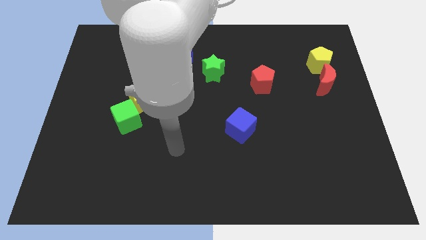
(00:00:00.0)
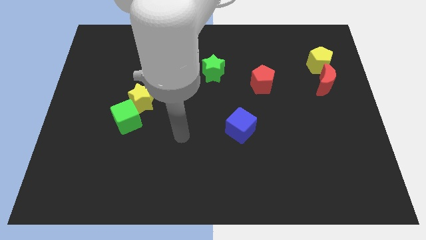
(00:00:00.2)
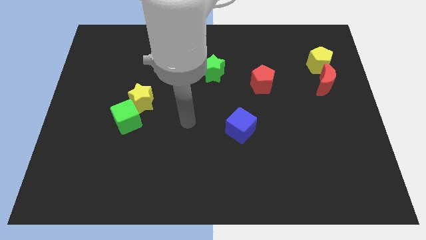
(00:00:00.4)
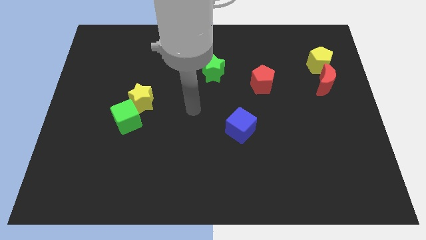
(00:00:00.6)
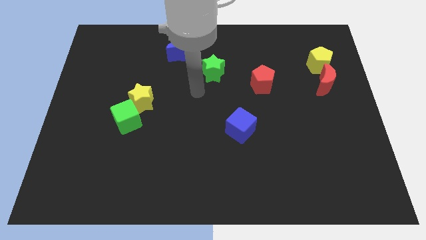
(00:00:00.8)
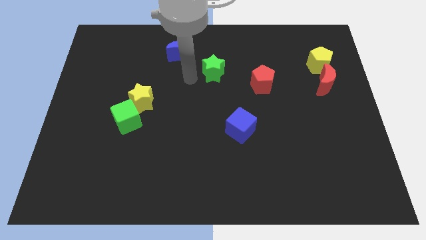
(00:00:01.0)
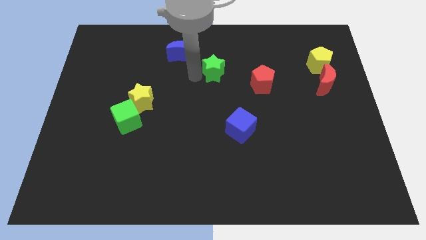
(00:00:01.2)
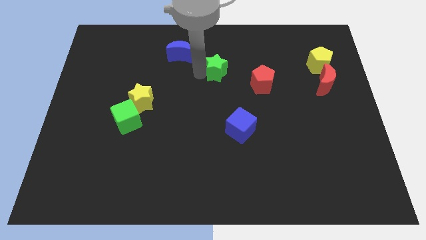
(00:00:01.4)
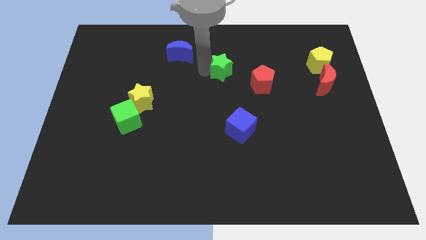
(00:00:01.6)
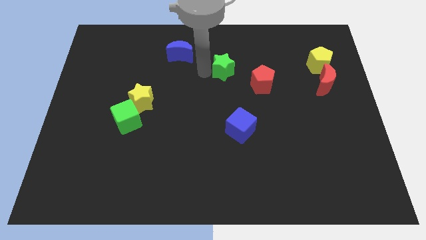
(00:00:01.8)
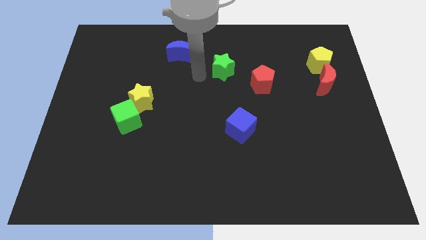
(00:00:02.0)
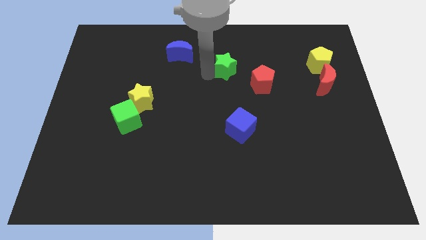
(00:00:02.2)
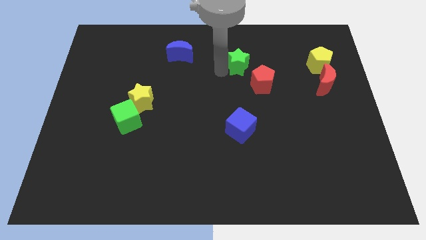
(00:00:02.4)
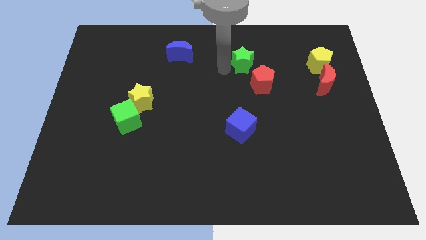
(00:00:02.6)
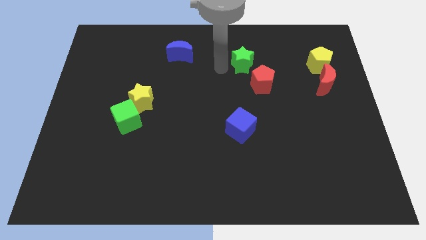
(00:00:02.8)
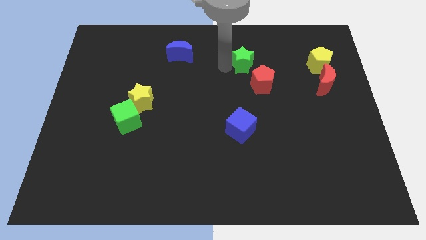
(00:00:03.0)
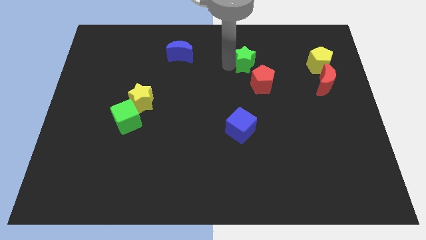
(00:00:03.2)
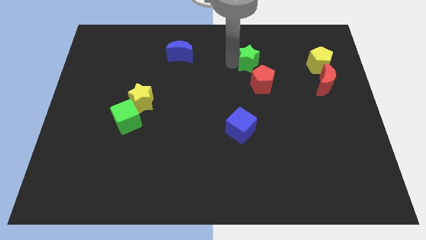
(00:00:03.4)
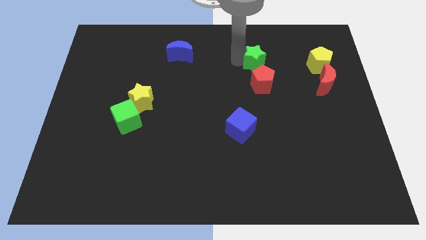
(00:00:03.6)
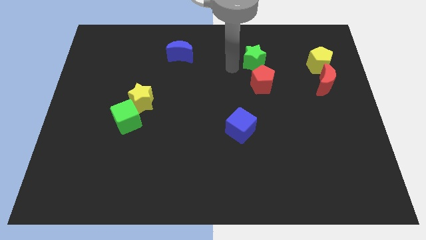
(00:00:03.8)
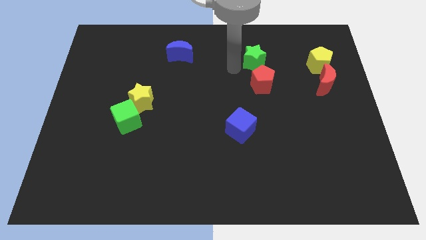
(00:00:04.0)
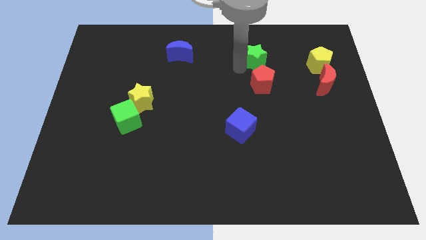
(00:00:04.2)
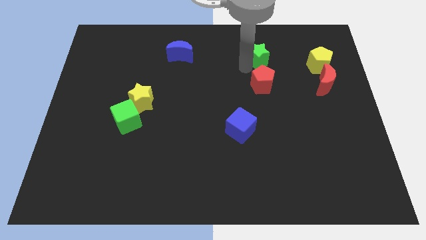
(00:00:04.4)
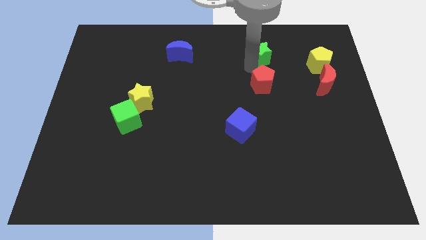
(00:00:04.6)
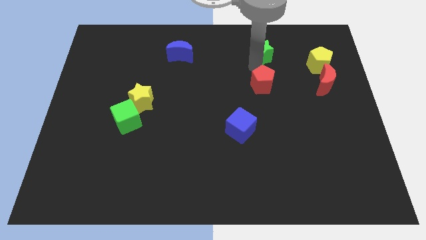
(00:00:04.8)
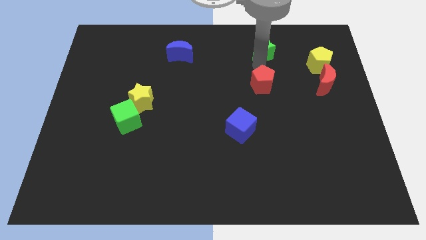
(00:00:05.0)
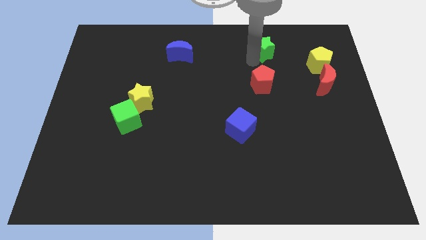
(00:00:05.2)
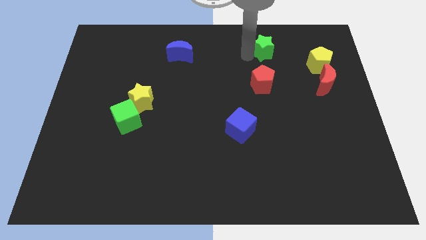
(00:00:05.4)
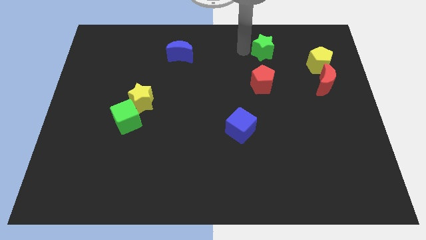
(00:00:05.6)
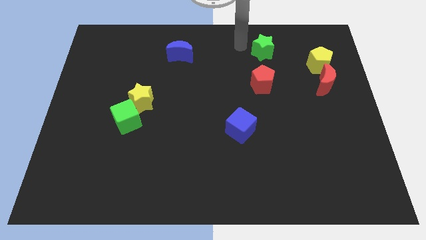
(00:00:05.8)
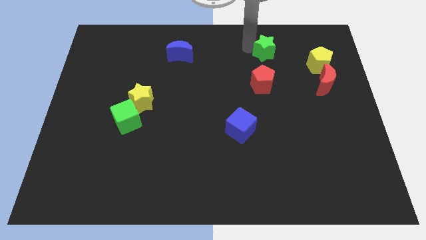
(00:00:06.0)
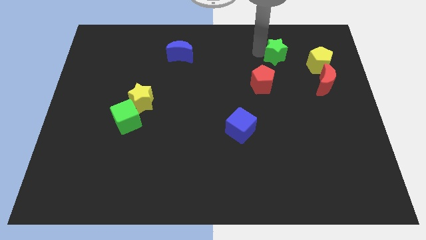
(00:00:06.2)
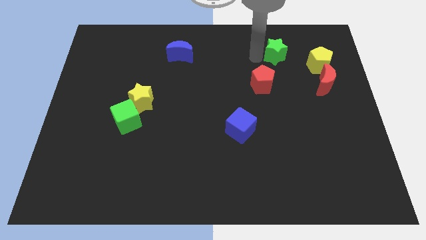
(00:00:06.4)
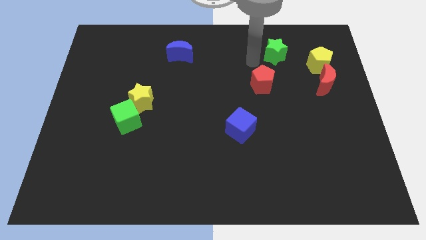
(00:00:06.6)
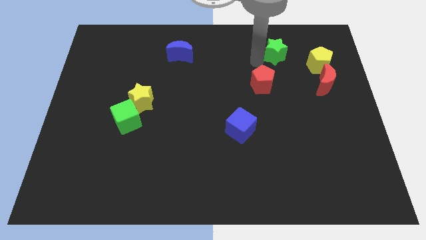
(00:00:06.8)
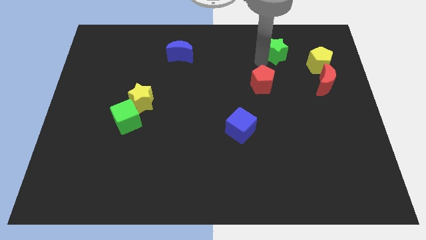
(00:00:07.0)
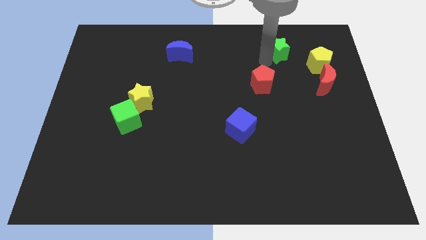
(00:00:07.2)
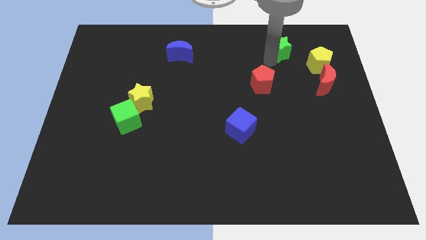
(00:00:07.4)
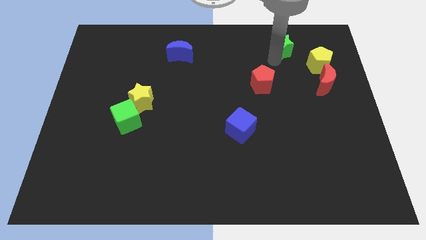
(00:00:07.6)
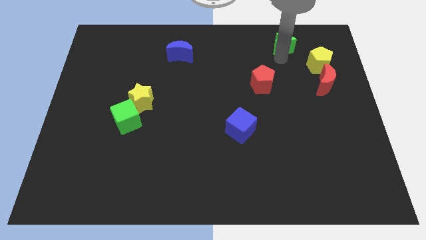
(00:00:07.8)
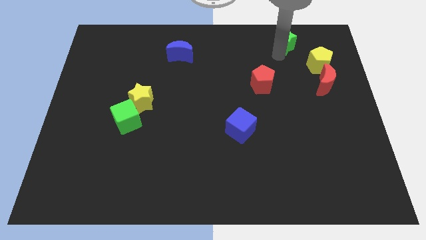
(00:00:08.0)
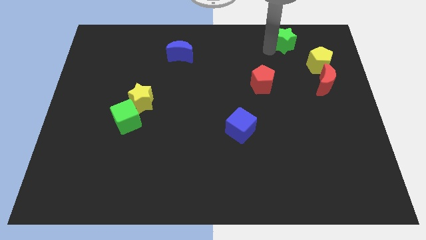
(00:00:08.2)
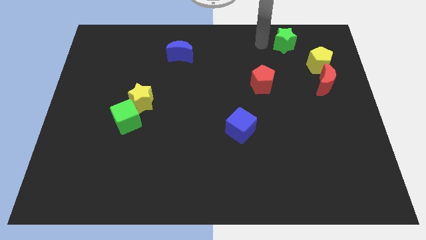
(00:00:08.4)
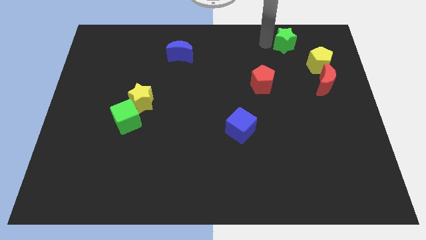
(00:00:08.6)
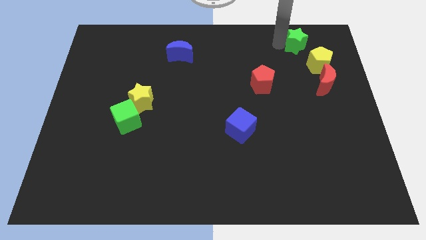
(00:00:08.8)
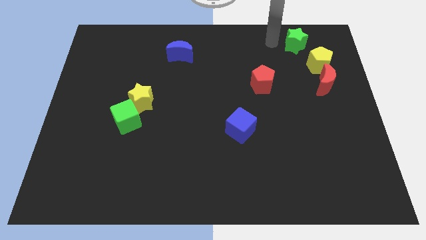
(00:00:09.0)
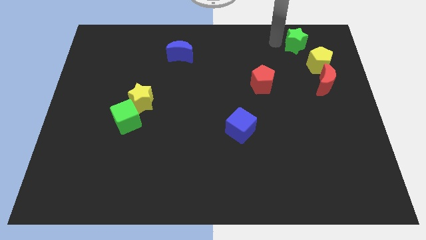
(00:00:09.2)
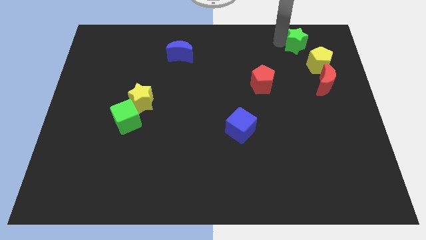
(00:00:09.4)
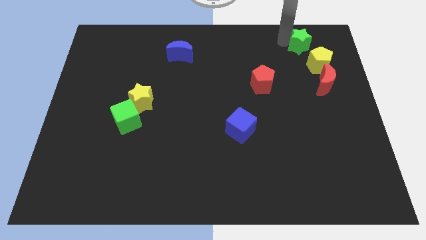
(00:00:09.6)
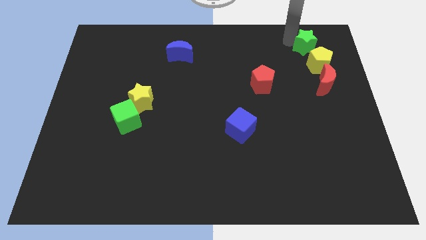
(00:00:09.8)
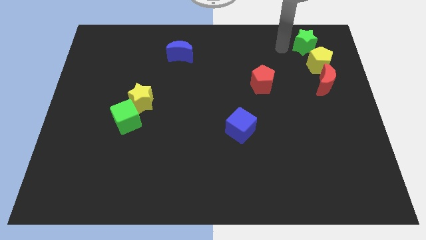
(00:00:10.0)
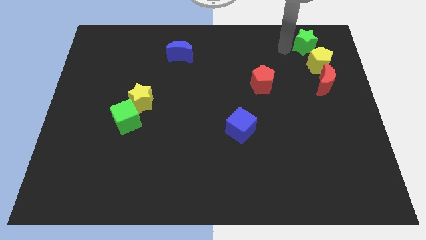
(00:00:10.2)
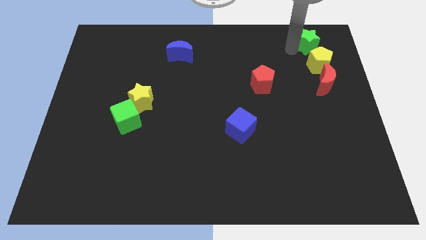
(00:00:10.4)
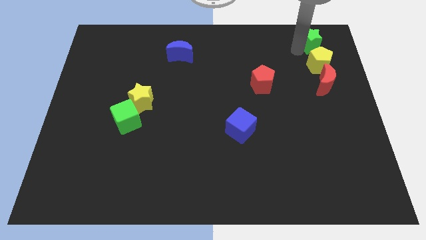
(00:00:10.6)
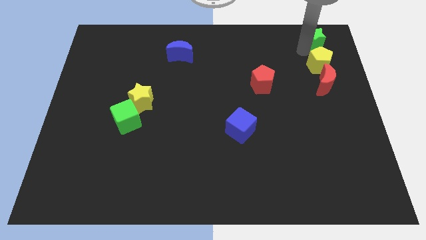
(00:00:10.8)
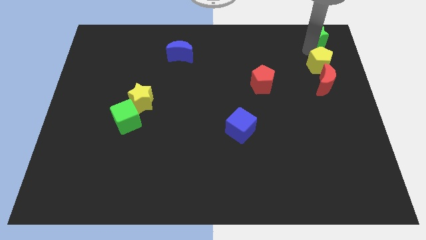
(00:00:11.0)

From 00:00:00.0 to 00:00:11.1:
move the green star to the top right of the board

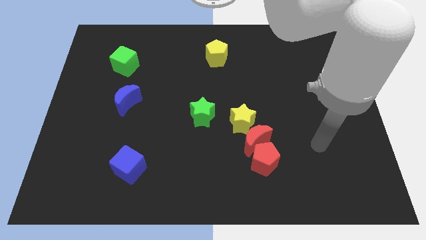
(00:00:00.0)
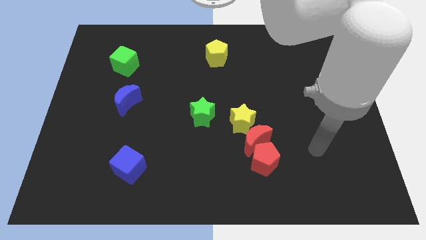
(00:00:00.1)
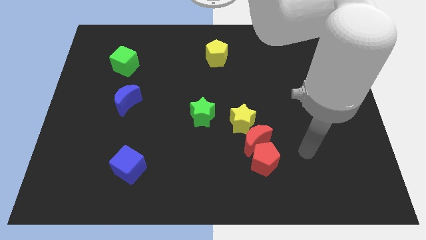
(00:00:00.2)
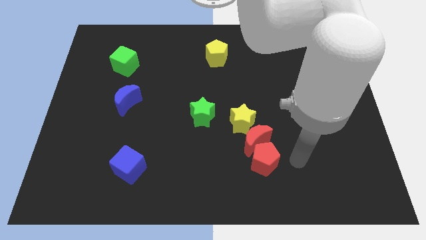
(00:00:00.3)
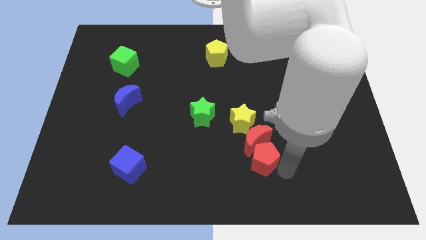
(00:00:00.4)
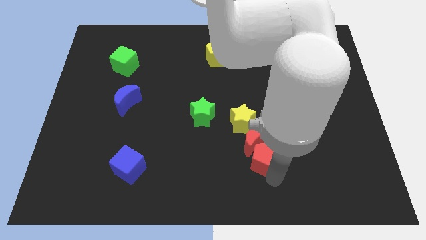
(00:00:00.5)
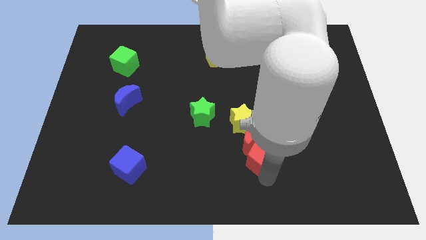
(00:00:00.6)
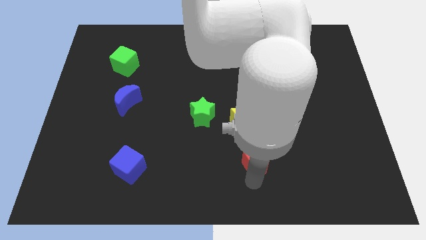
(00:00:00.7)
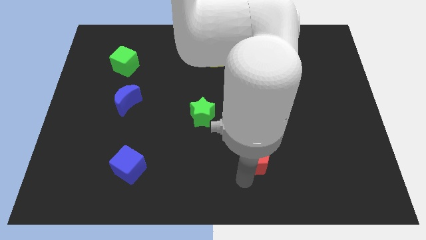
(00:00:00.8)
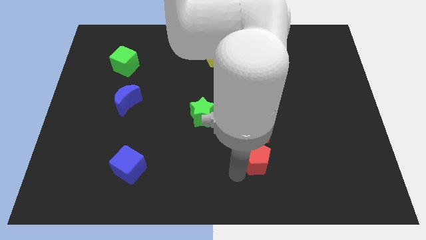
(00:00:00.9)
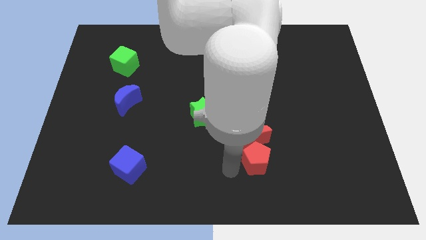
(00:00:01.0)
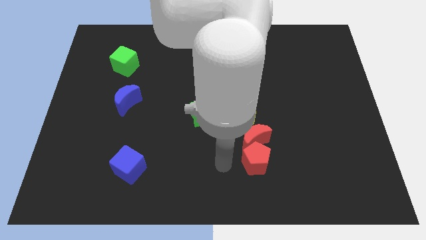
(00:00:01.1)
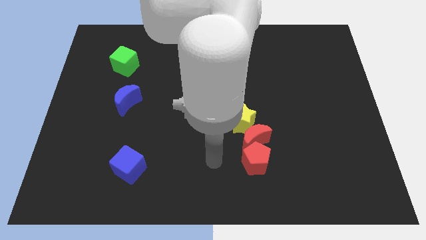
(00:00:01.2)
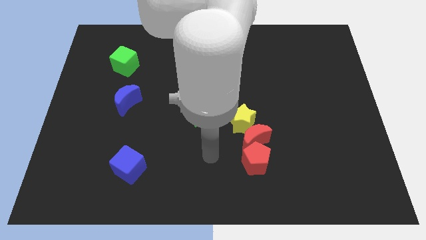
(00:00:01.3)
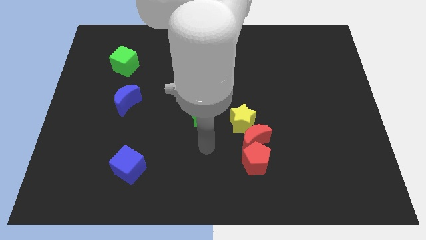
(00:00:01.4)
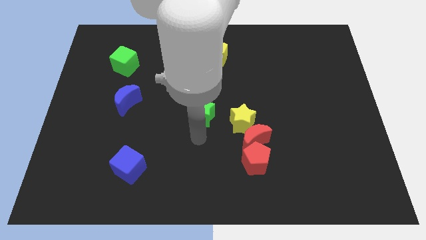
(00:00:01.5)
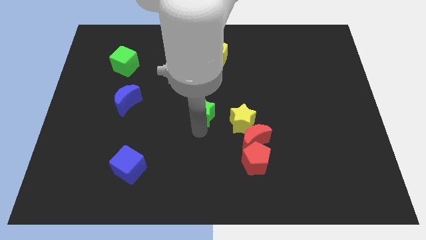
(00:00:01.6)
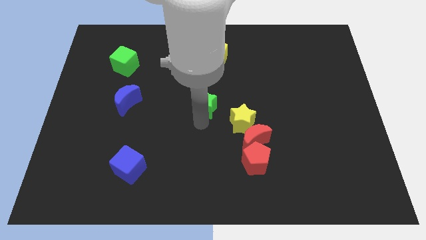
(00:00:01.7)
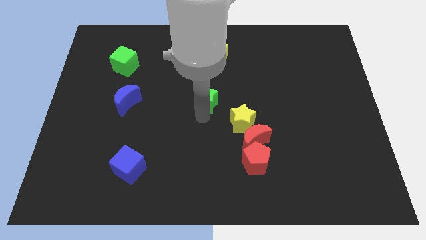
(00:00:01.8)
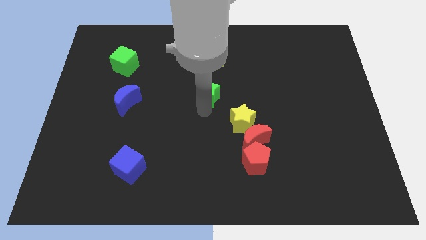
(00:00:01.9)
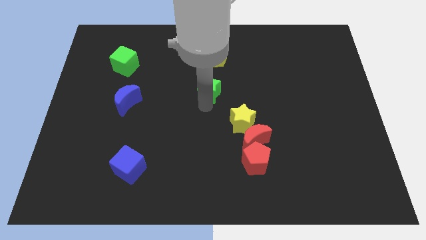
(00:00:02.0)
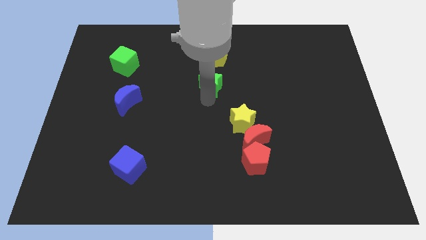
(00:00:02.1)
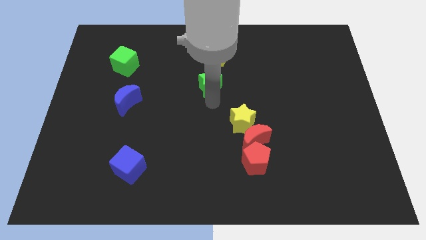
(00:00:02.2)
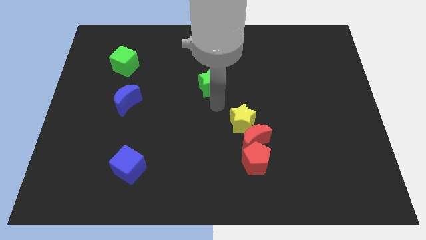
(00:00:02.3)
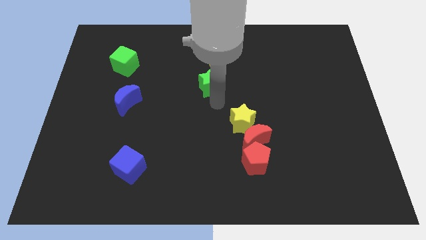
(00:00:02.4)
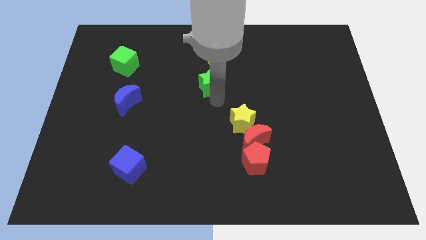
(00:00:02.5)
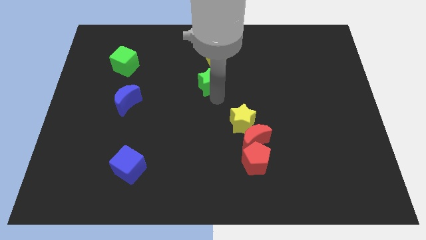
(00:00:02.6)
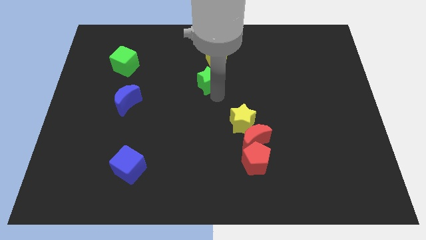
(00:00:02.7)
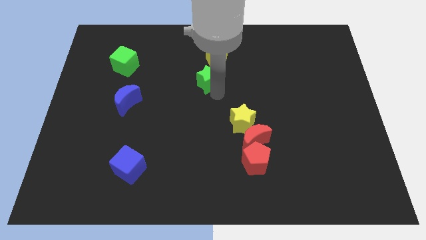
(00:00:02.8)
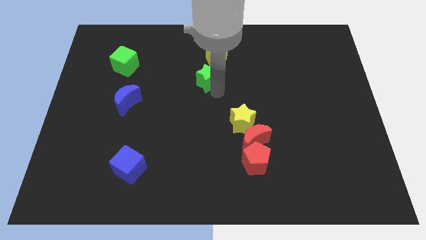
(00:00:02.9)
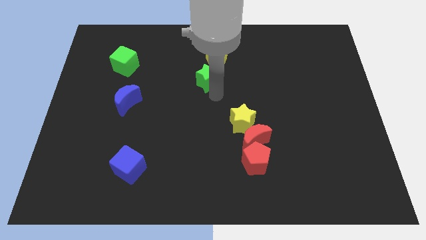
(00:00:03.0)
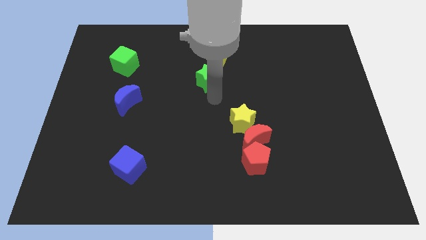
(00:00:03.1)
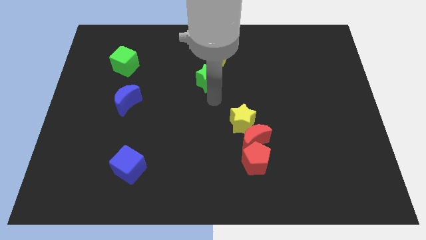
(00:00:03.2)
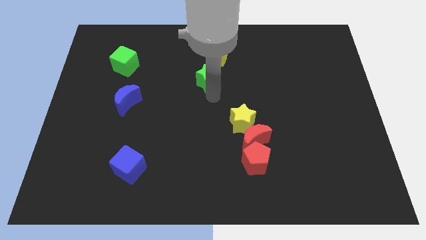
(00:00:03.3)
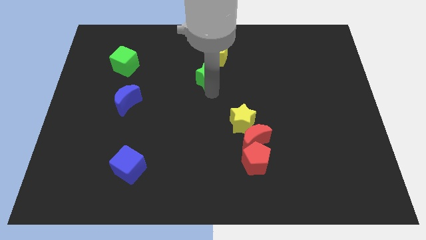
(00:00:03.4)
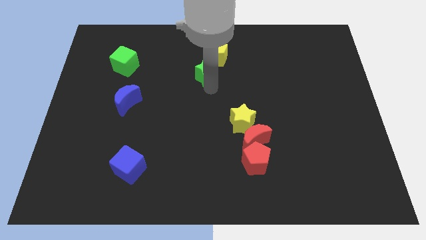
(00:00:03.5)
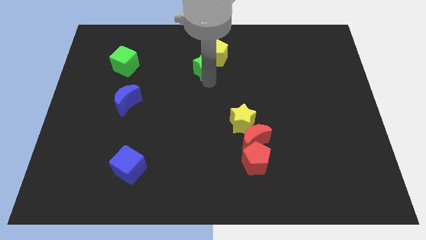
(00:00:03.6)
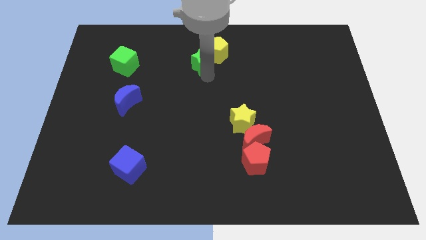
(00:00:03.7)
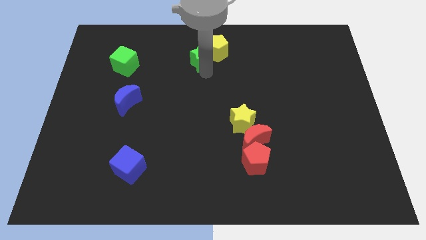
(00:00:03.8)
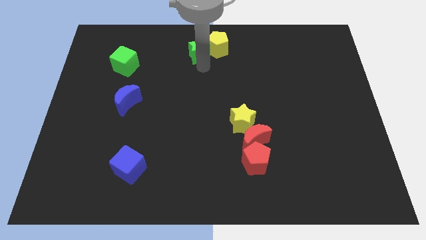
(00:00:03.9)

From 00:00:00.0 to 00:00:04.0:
move the green star to the top
